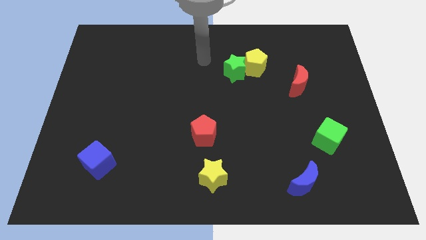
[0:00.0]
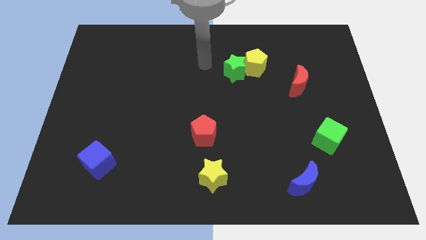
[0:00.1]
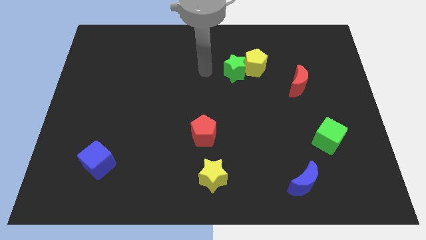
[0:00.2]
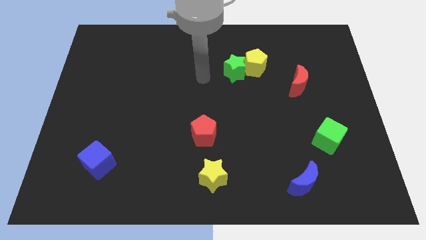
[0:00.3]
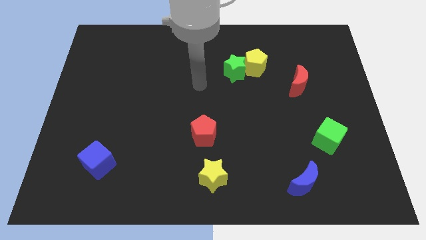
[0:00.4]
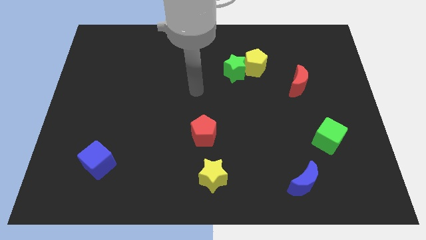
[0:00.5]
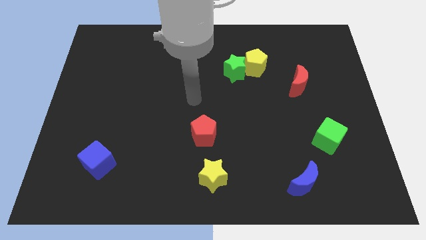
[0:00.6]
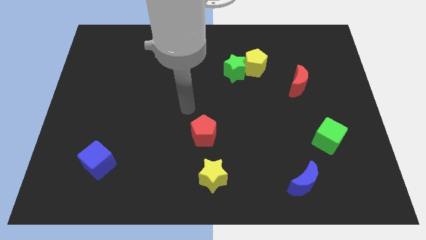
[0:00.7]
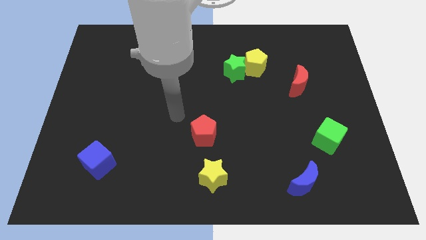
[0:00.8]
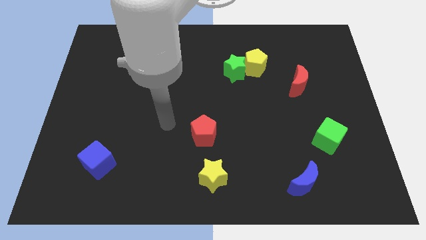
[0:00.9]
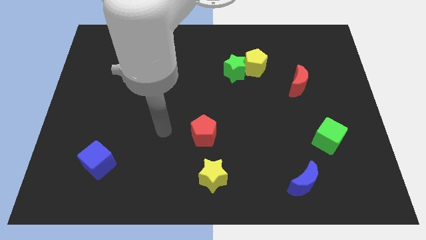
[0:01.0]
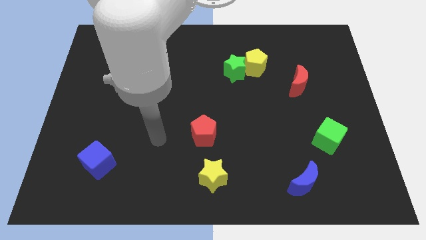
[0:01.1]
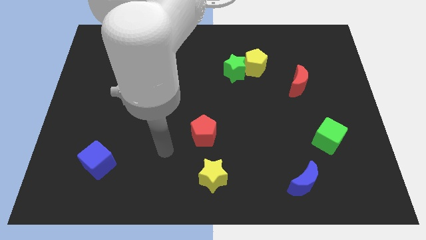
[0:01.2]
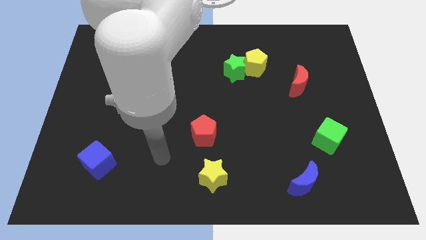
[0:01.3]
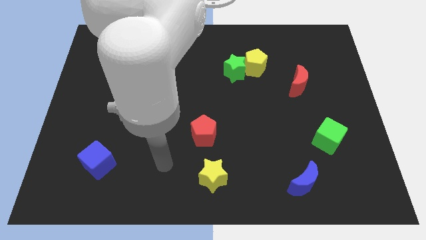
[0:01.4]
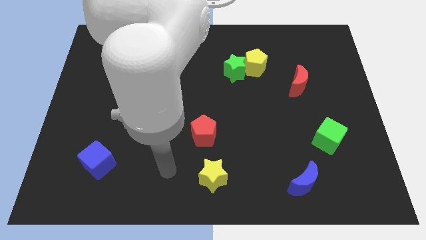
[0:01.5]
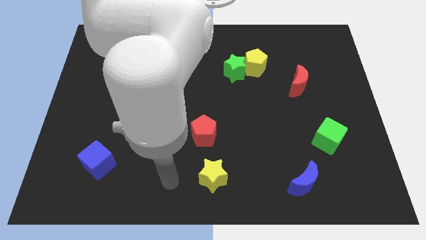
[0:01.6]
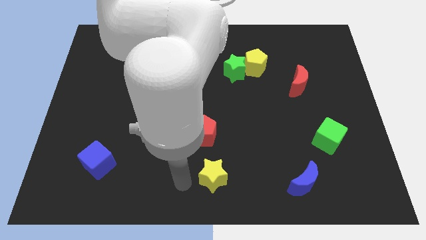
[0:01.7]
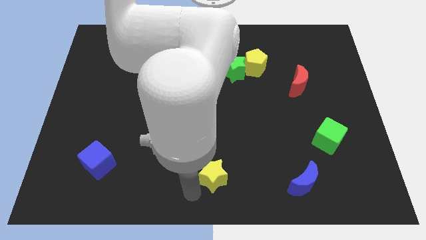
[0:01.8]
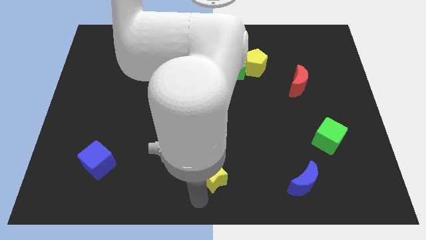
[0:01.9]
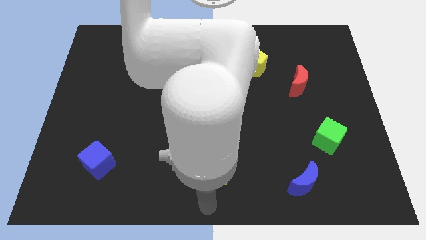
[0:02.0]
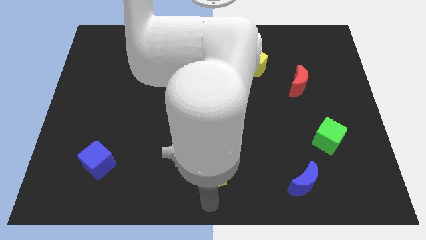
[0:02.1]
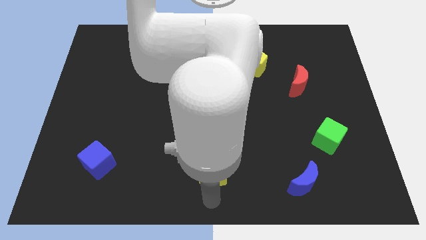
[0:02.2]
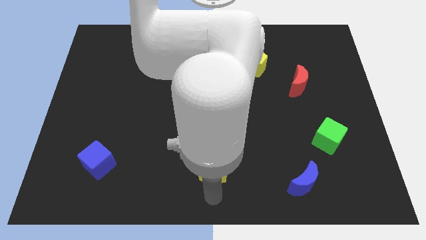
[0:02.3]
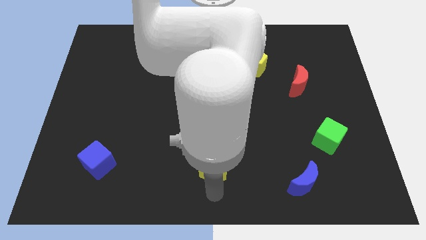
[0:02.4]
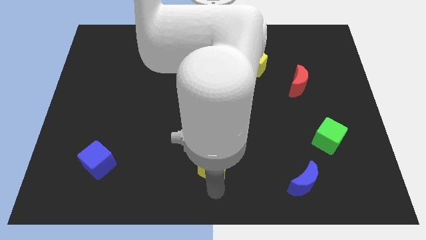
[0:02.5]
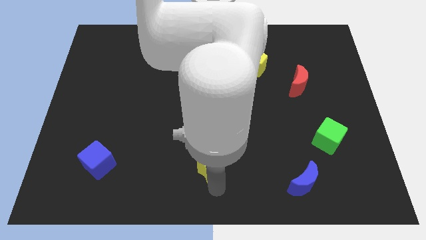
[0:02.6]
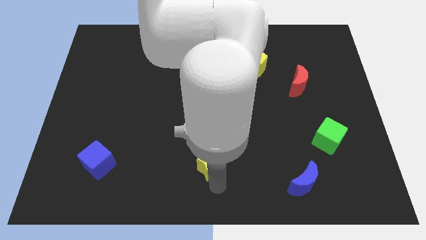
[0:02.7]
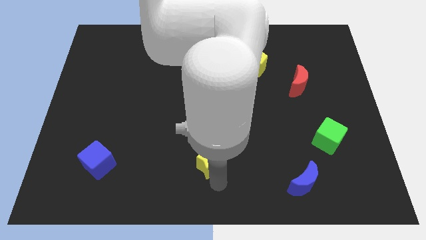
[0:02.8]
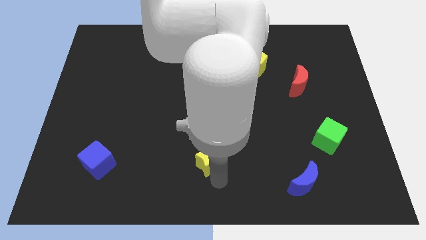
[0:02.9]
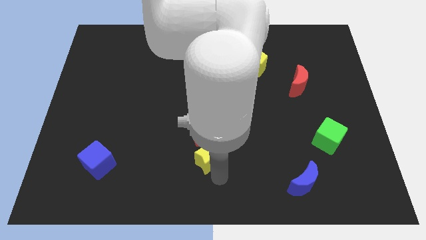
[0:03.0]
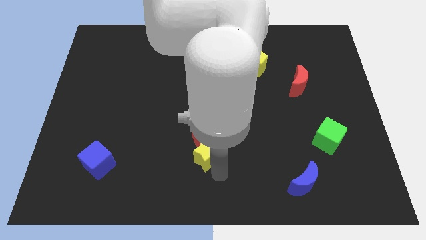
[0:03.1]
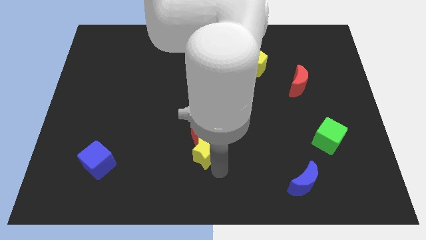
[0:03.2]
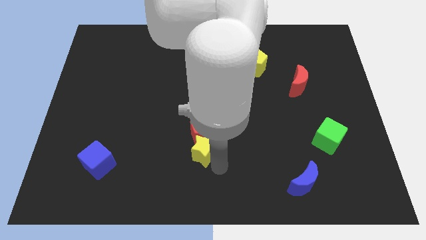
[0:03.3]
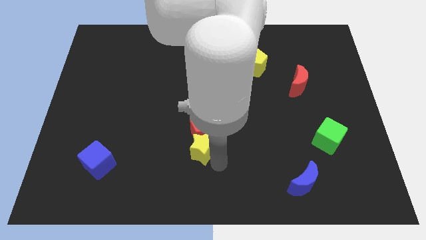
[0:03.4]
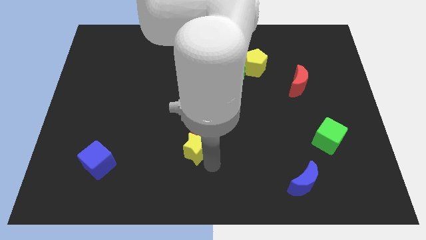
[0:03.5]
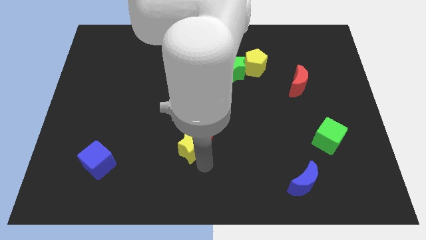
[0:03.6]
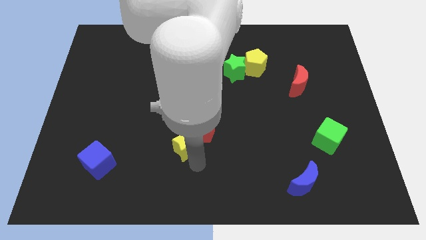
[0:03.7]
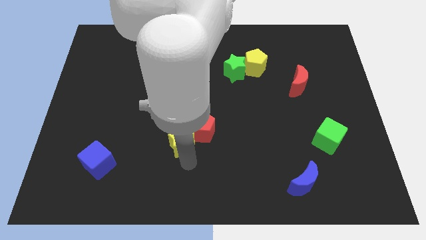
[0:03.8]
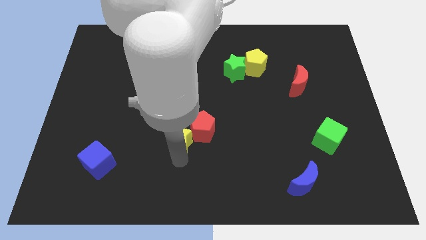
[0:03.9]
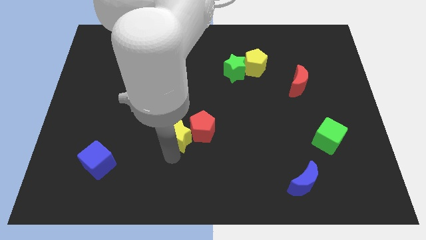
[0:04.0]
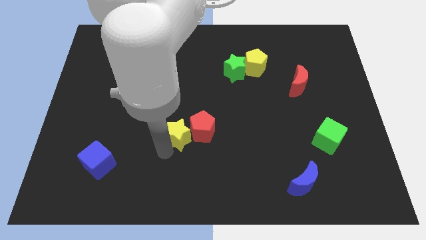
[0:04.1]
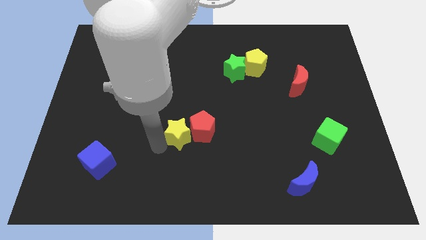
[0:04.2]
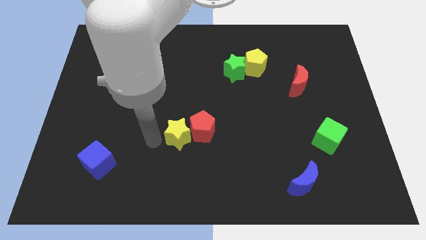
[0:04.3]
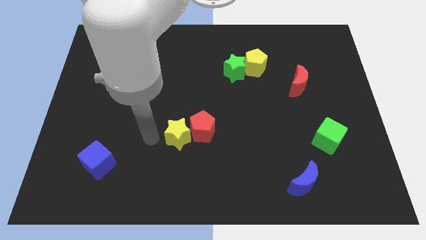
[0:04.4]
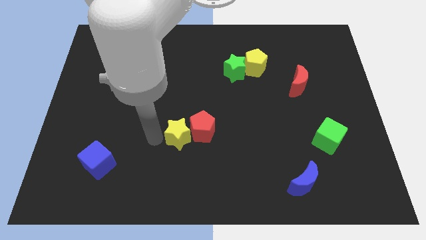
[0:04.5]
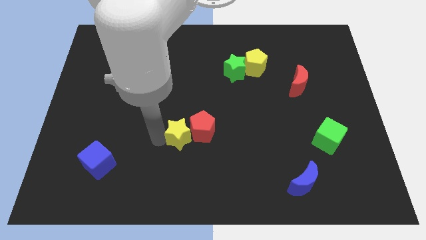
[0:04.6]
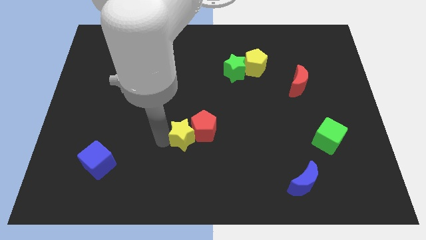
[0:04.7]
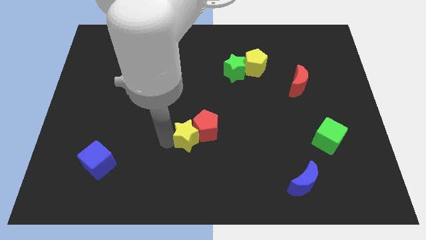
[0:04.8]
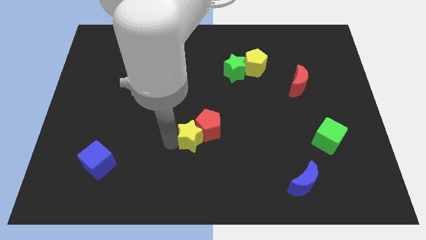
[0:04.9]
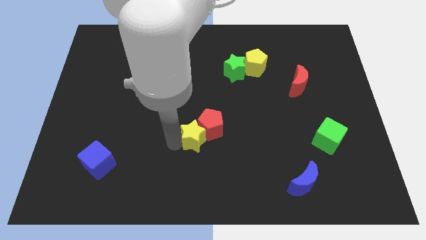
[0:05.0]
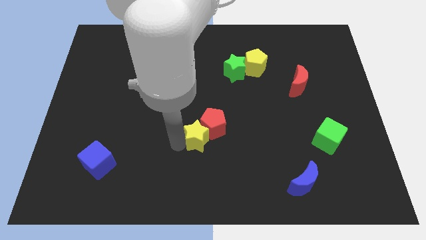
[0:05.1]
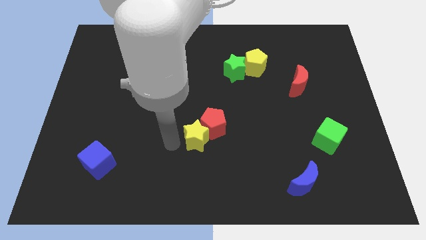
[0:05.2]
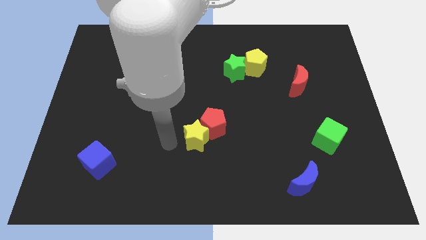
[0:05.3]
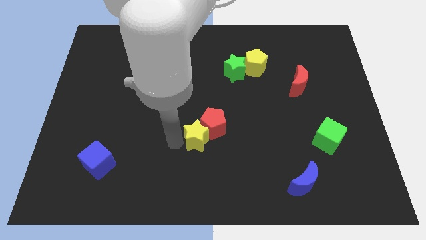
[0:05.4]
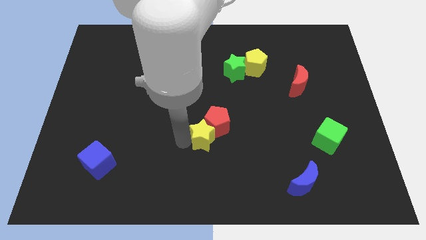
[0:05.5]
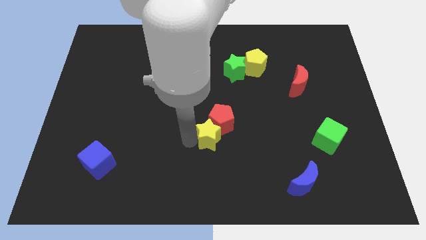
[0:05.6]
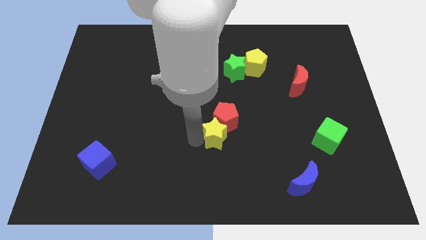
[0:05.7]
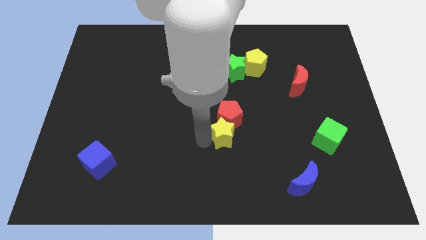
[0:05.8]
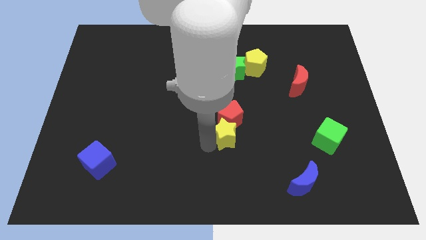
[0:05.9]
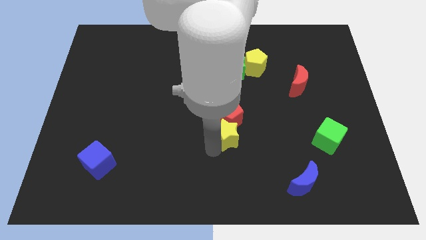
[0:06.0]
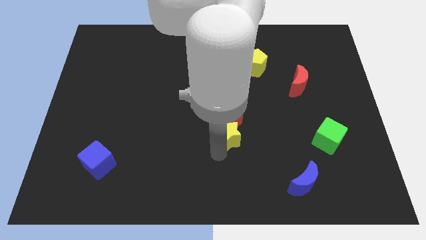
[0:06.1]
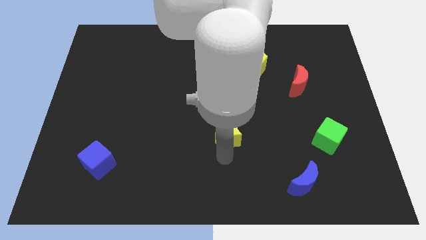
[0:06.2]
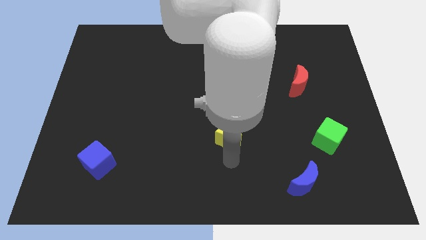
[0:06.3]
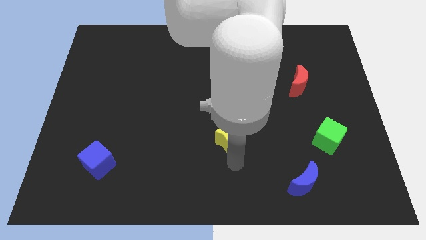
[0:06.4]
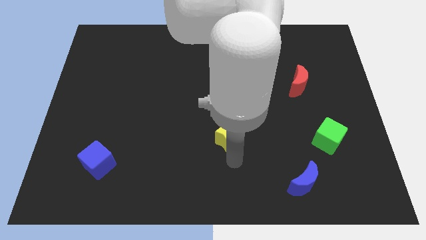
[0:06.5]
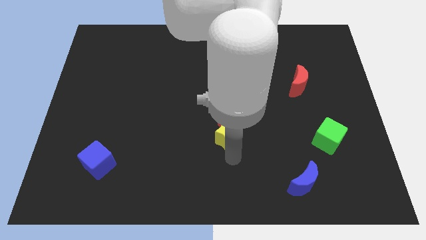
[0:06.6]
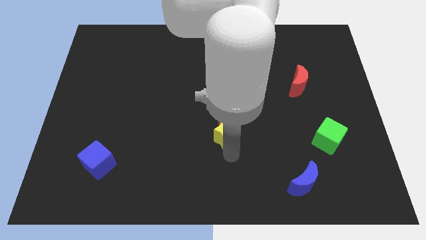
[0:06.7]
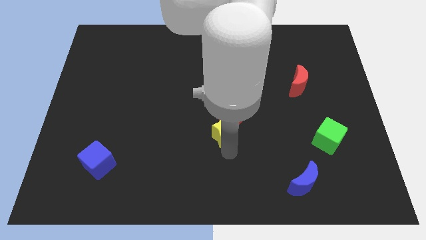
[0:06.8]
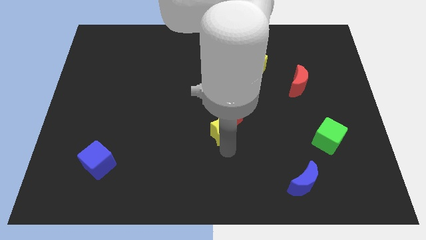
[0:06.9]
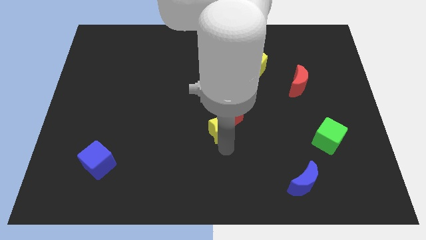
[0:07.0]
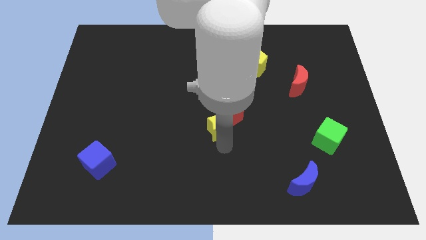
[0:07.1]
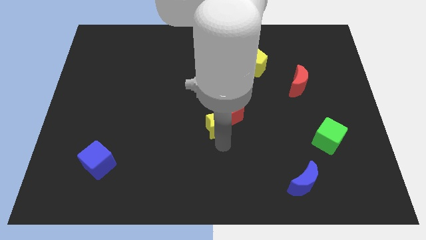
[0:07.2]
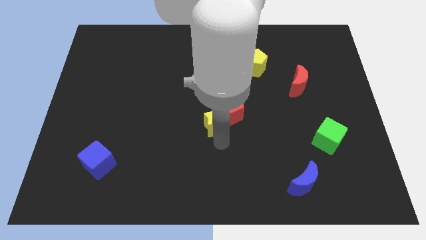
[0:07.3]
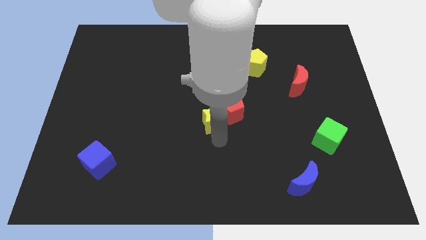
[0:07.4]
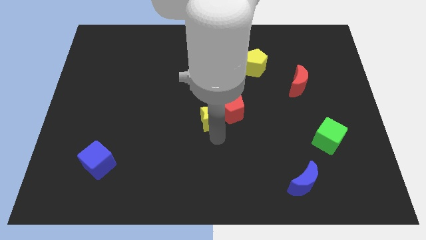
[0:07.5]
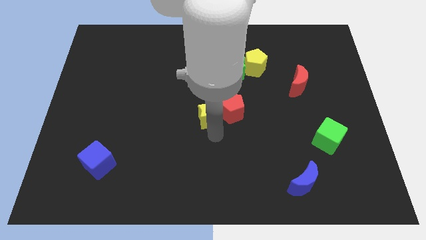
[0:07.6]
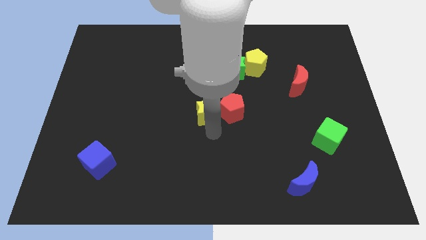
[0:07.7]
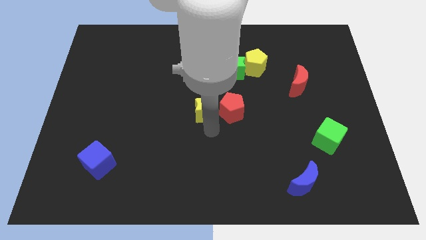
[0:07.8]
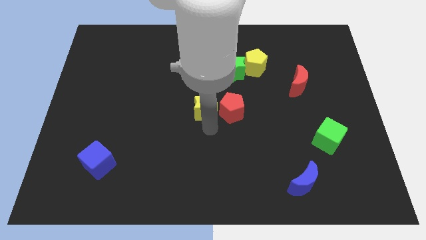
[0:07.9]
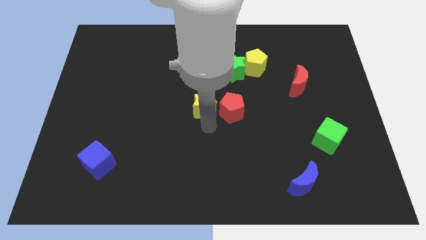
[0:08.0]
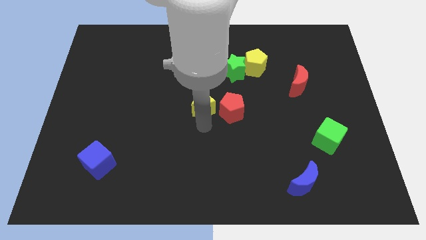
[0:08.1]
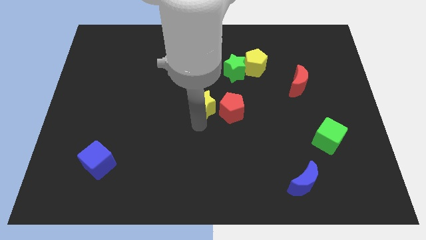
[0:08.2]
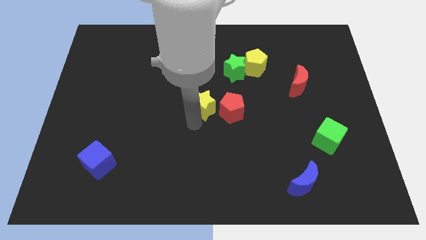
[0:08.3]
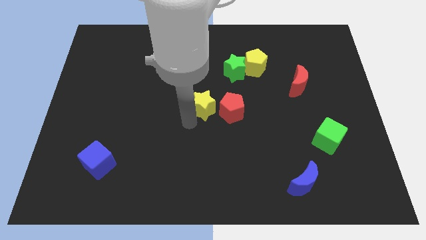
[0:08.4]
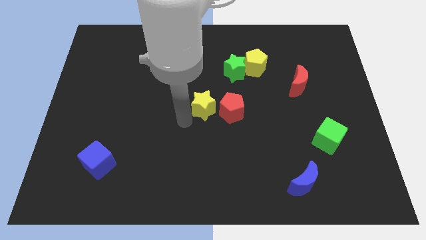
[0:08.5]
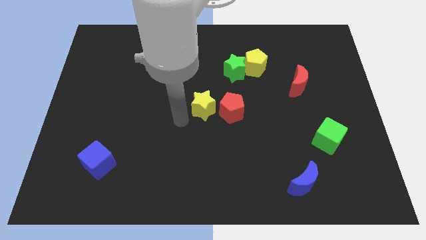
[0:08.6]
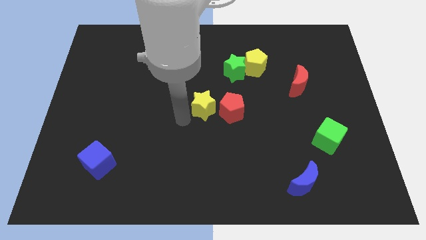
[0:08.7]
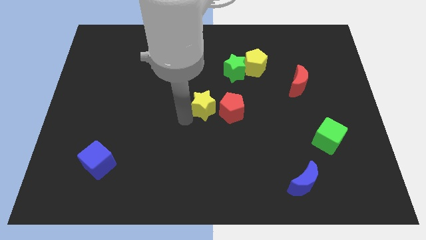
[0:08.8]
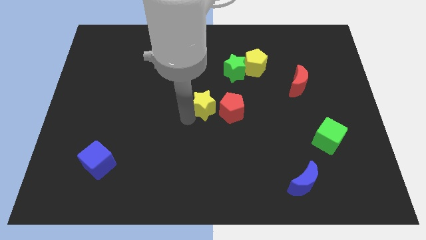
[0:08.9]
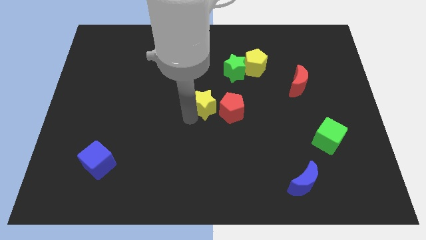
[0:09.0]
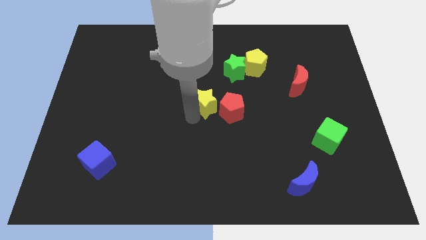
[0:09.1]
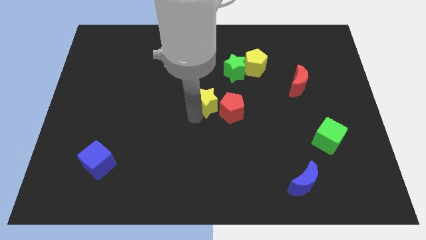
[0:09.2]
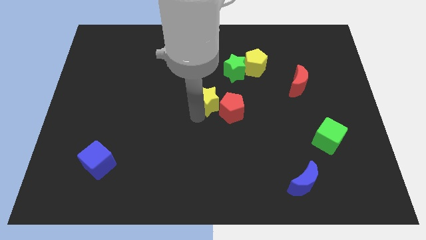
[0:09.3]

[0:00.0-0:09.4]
slide the yellow star to the bottom left side of the green star
